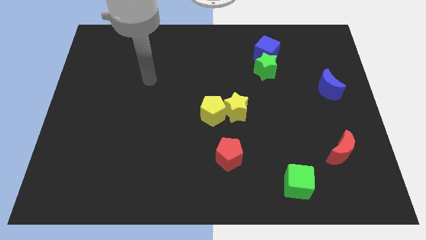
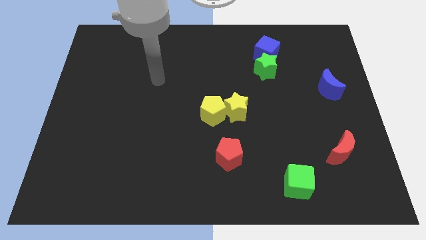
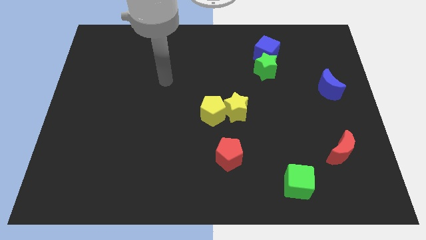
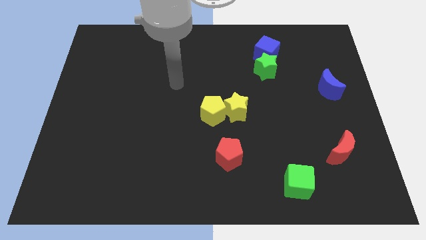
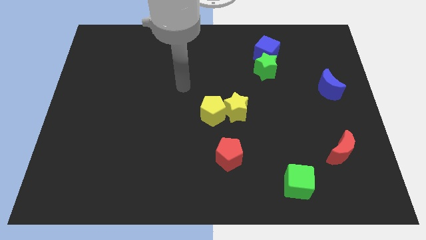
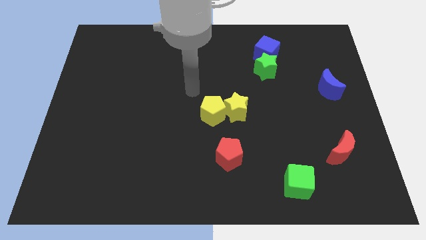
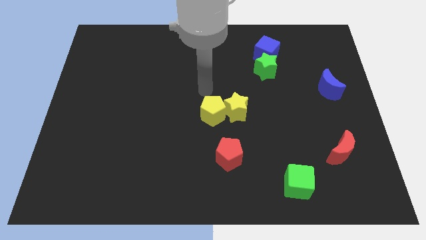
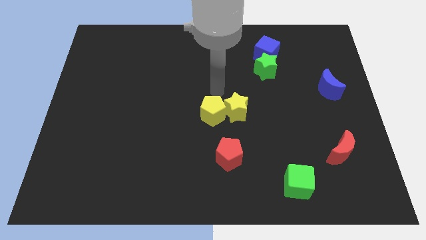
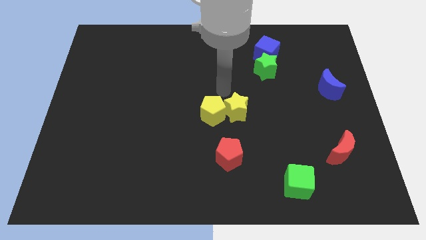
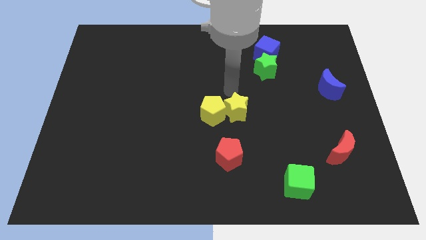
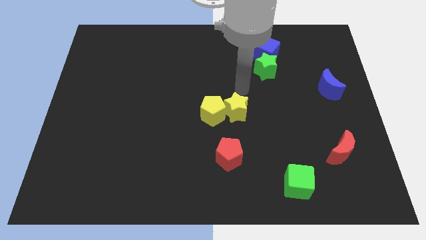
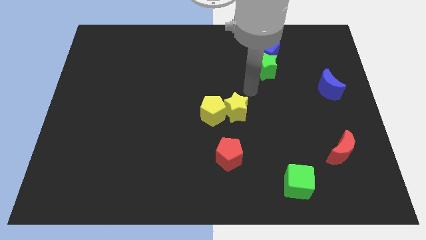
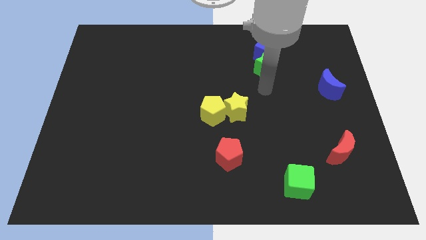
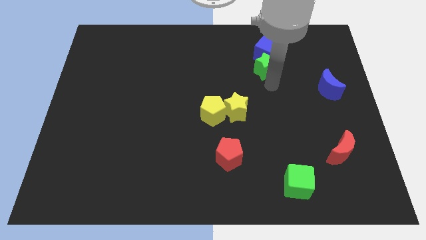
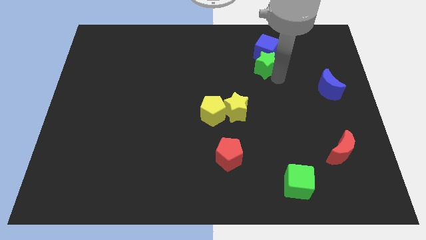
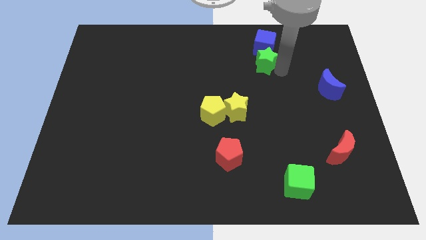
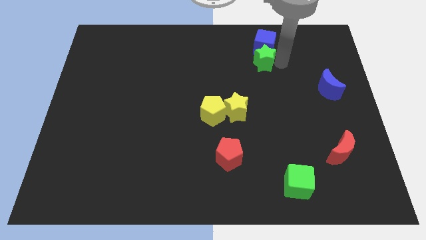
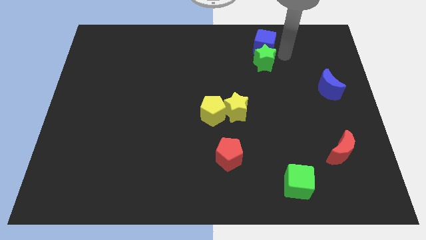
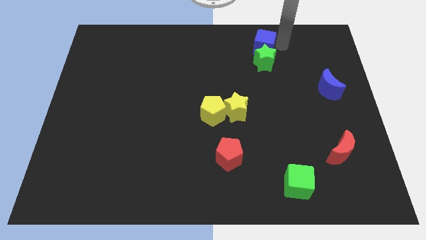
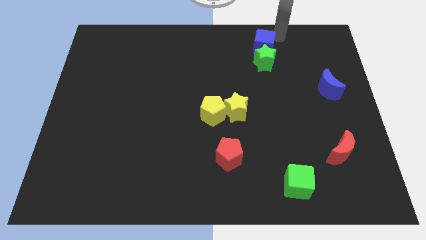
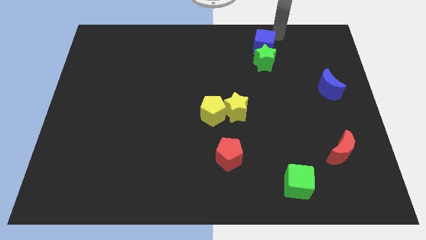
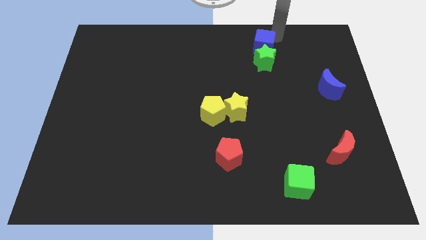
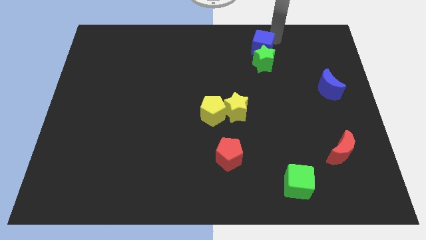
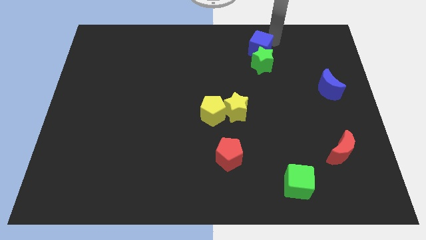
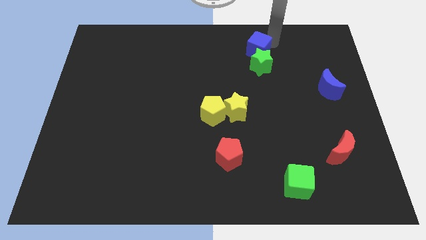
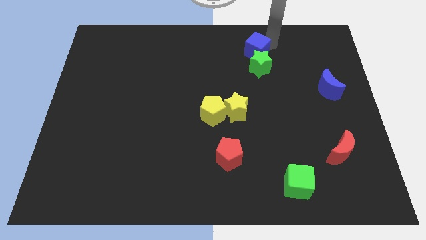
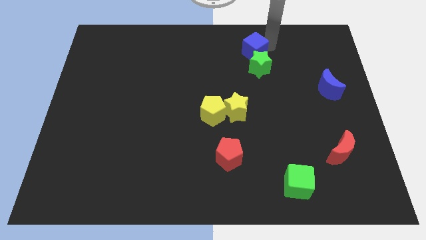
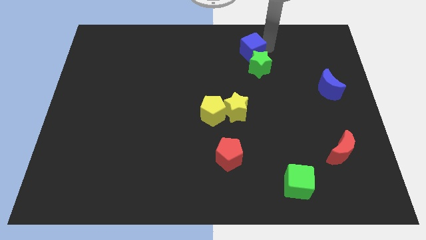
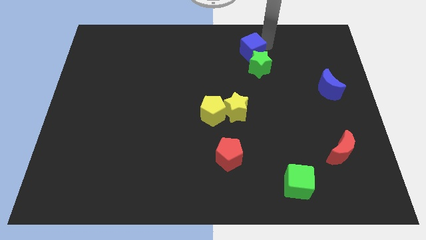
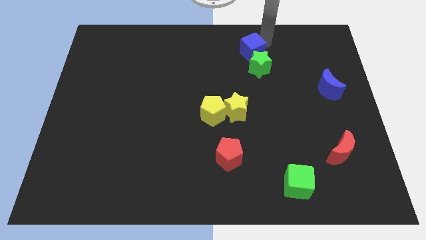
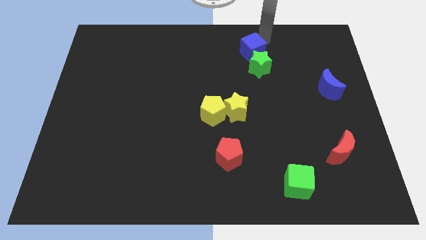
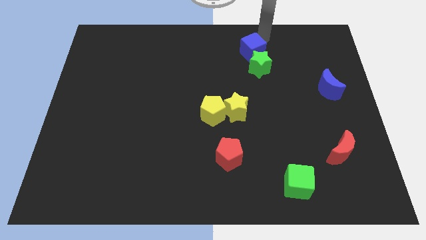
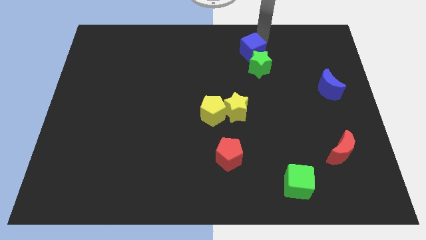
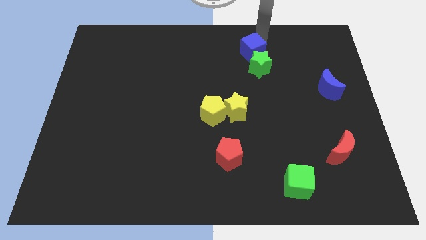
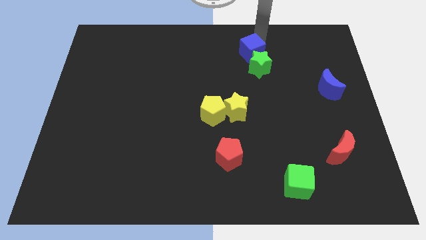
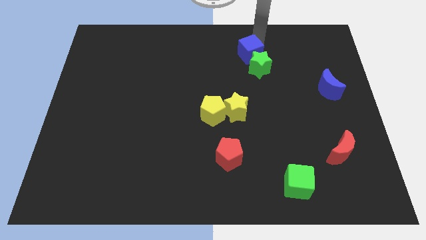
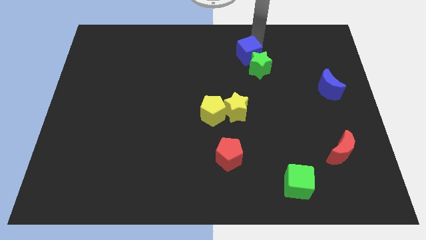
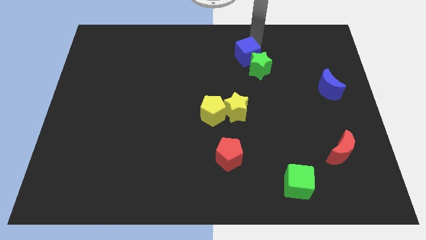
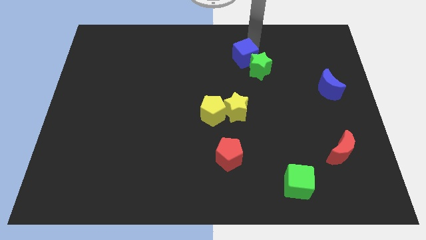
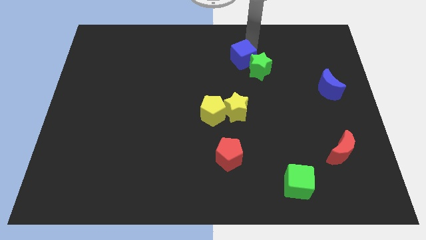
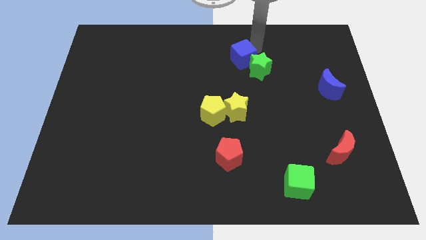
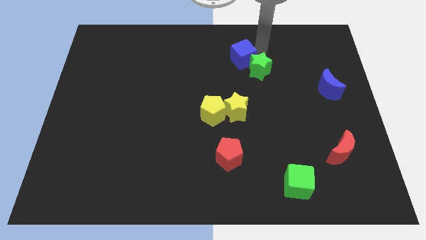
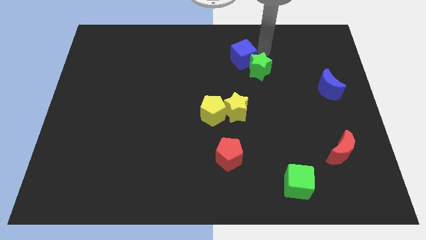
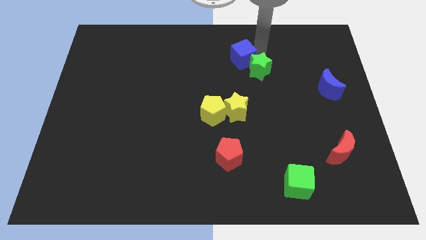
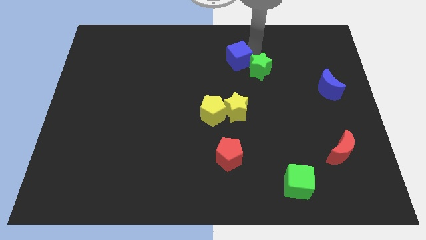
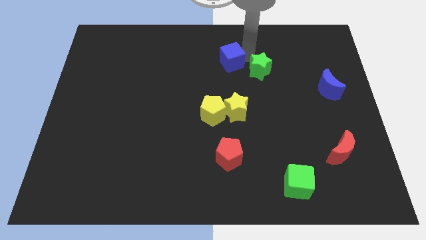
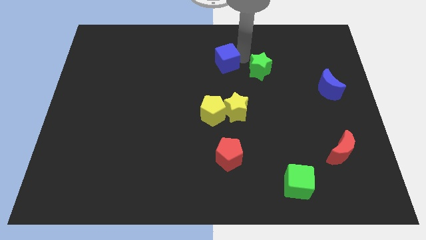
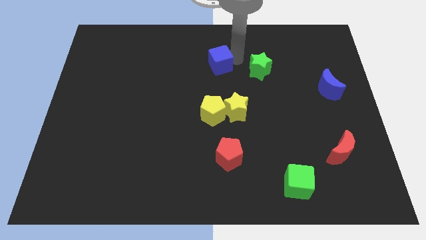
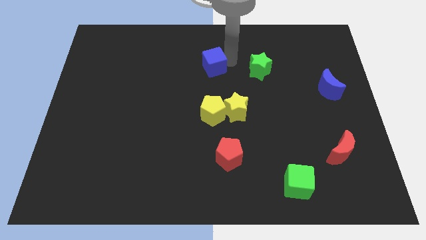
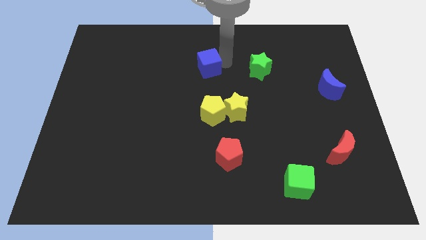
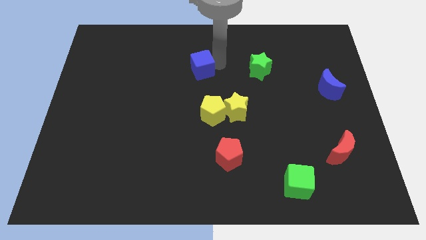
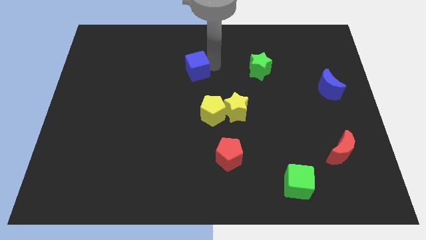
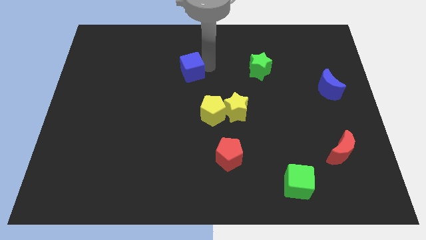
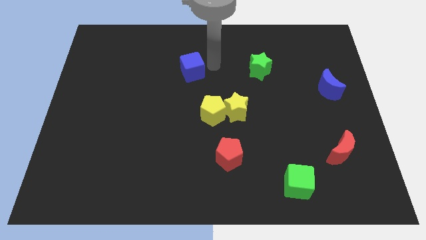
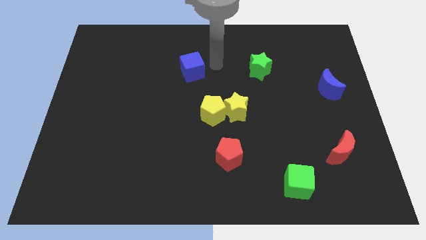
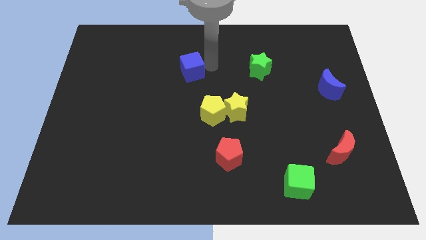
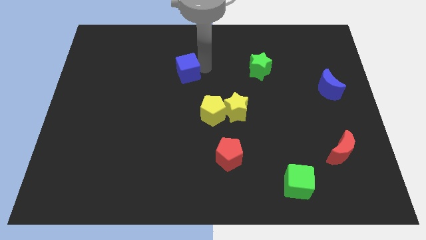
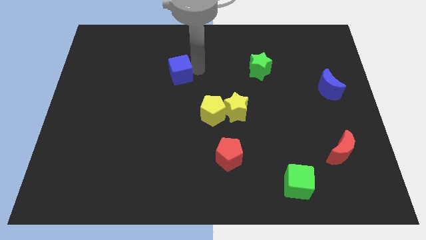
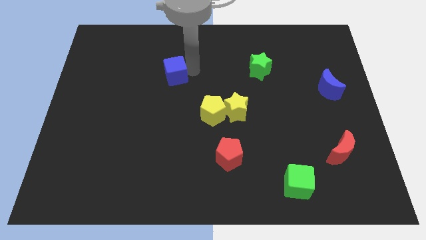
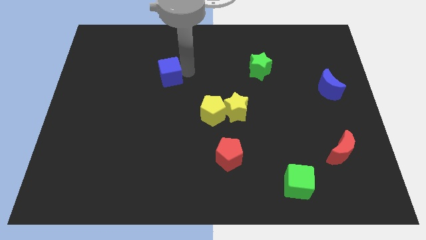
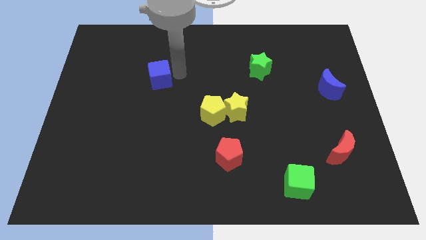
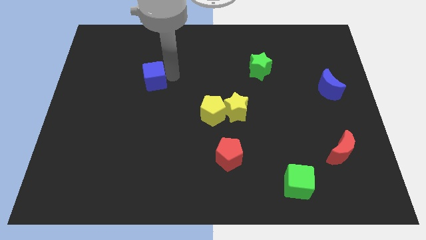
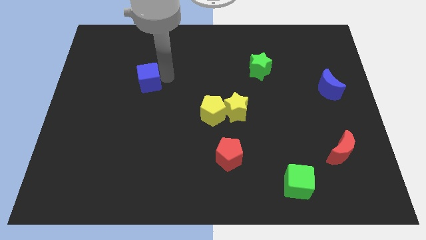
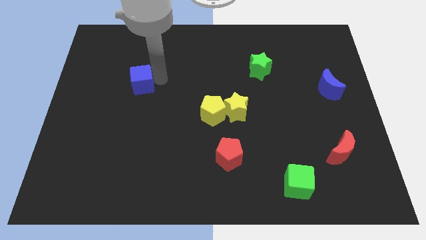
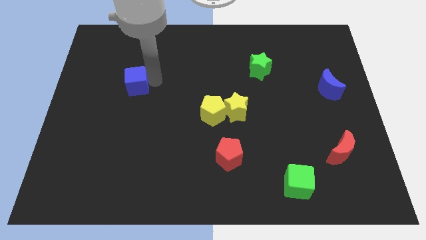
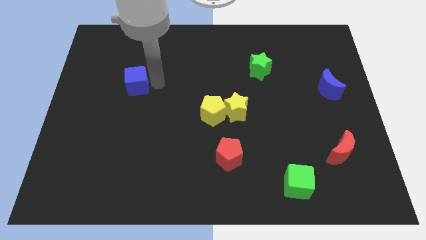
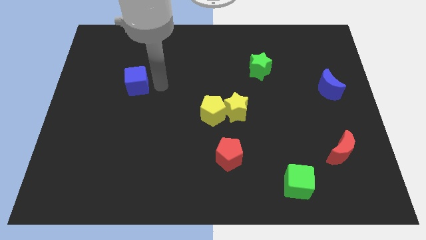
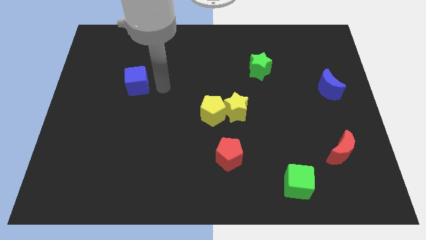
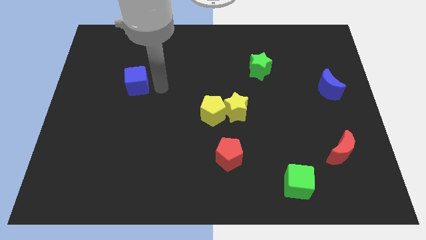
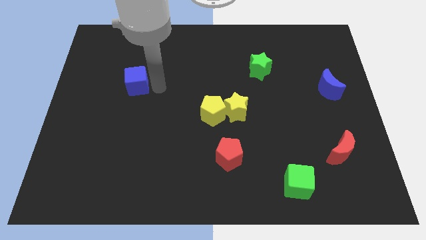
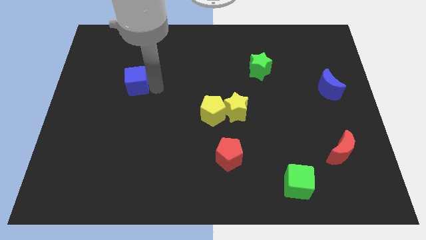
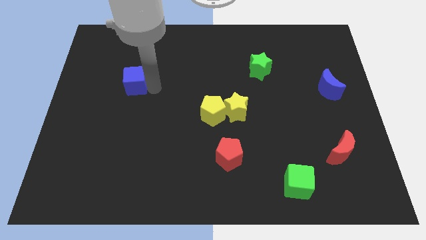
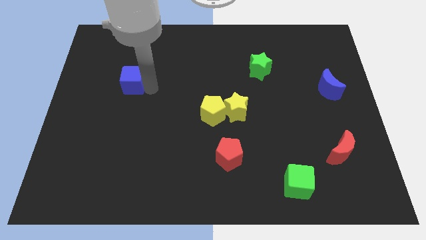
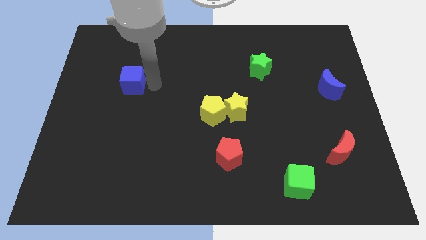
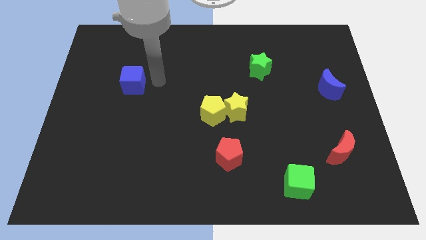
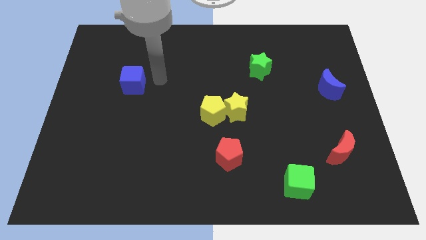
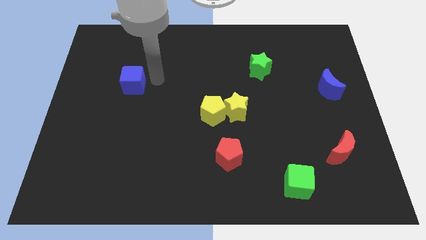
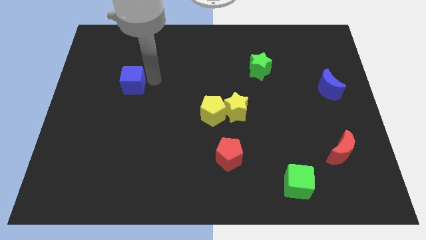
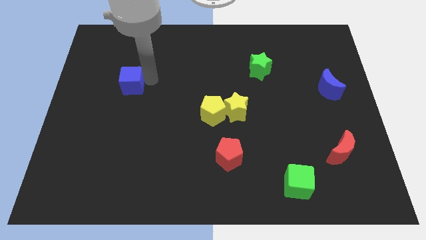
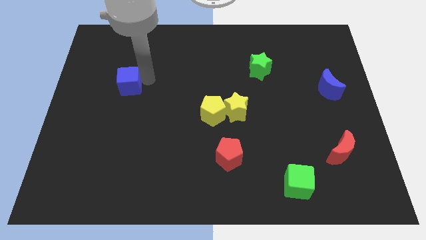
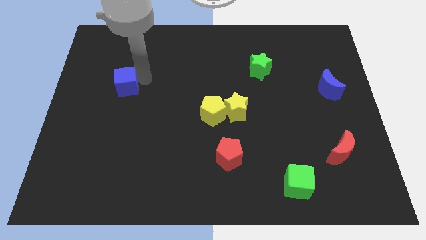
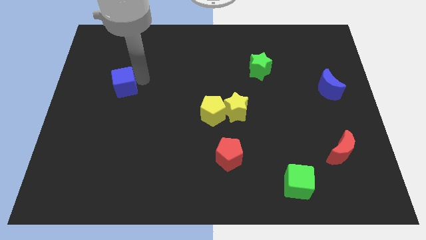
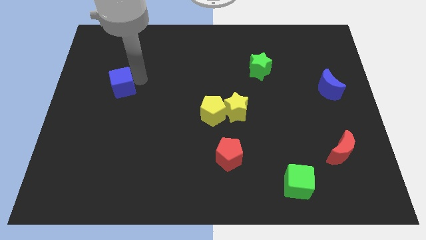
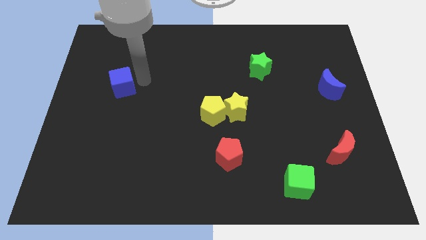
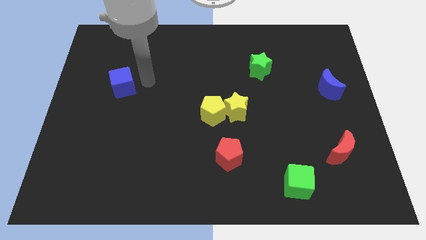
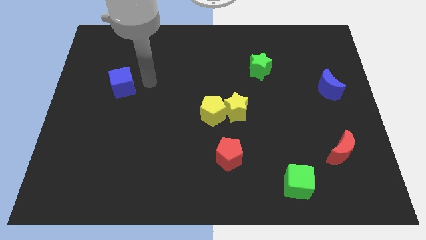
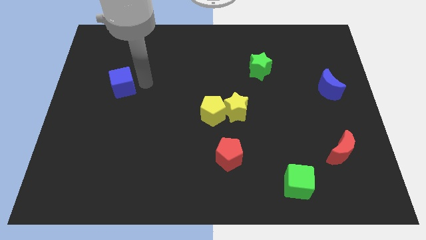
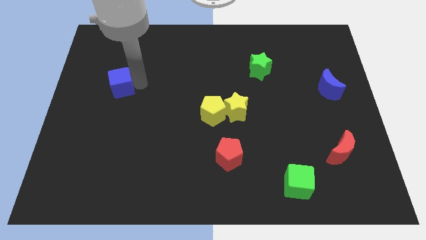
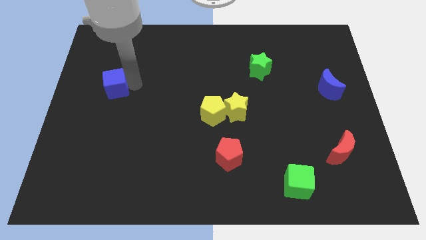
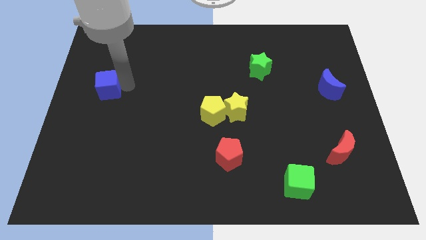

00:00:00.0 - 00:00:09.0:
push the blue cube to the center left
